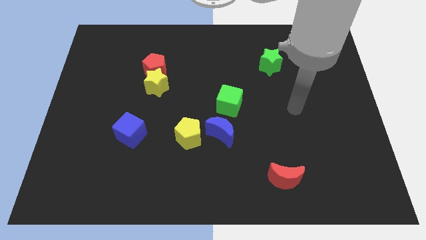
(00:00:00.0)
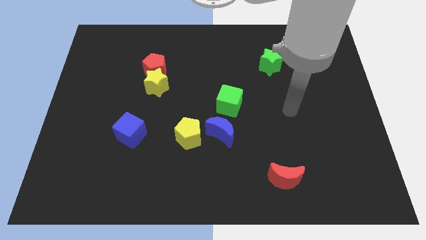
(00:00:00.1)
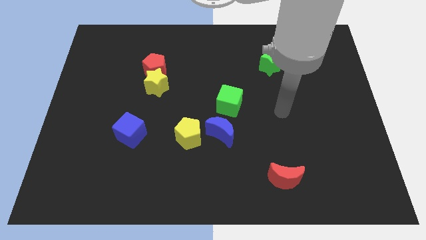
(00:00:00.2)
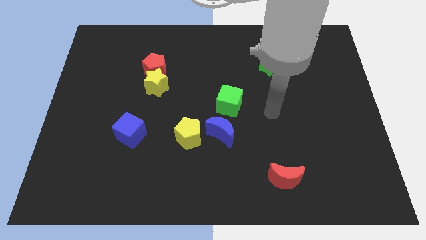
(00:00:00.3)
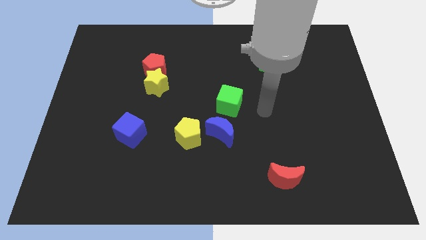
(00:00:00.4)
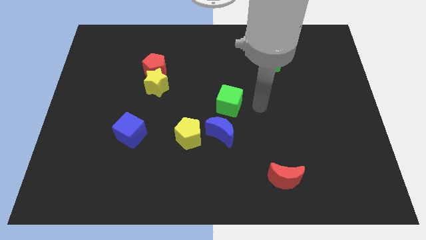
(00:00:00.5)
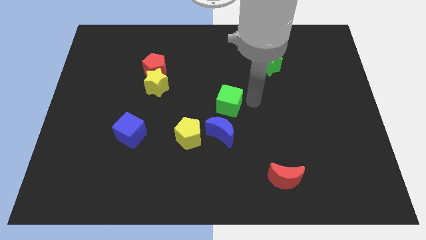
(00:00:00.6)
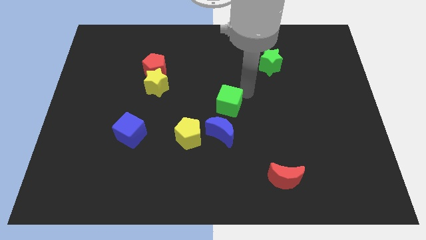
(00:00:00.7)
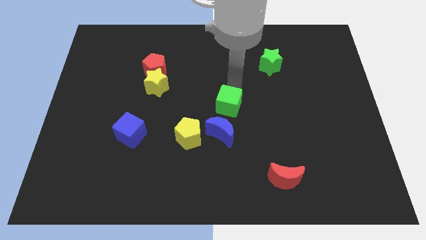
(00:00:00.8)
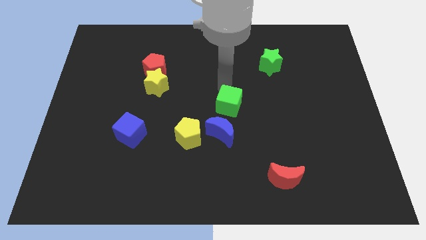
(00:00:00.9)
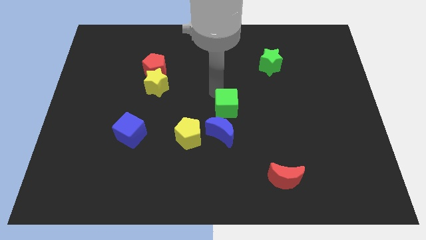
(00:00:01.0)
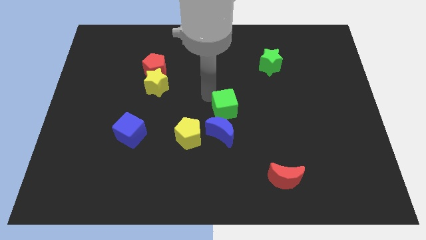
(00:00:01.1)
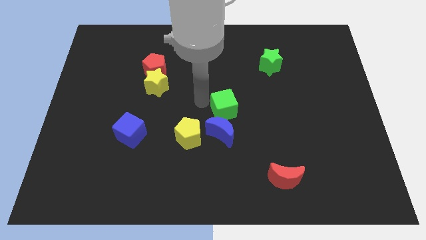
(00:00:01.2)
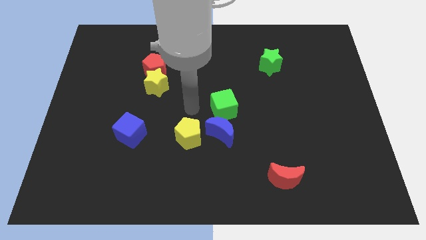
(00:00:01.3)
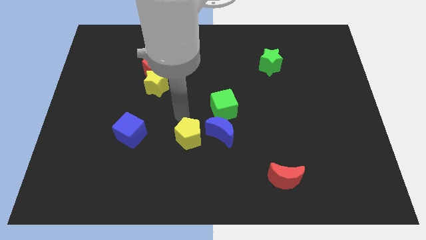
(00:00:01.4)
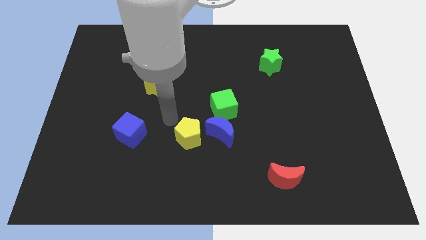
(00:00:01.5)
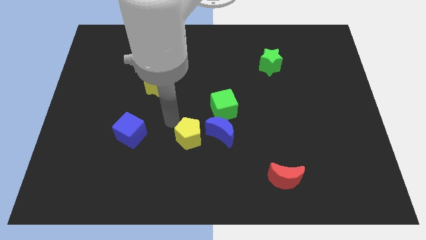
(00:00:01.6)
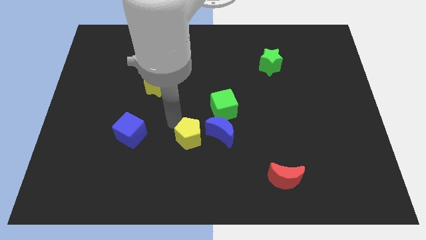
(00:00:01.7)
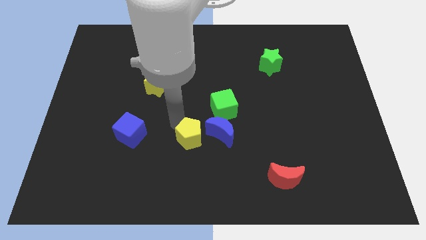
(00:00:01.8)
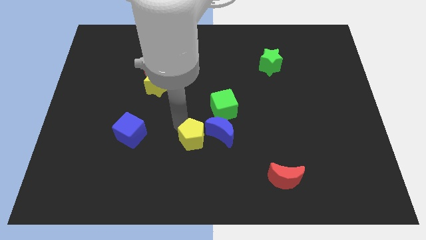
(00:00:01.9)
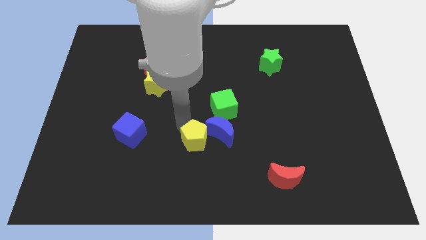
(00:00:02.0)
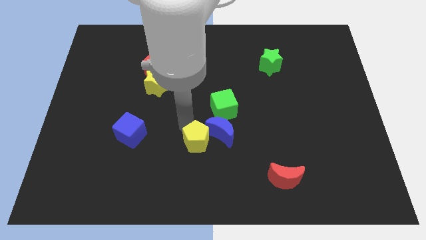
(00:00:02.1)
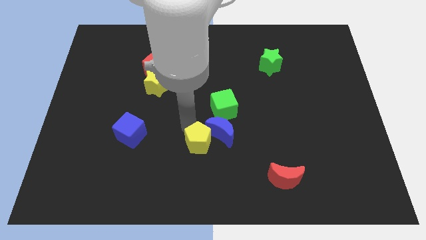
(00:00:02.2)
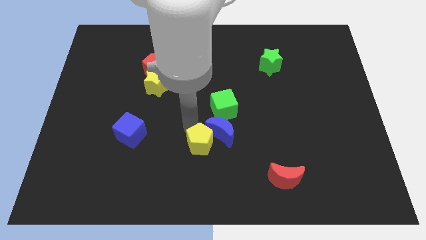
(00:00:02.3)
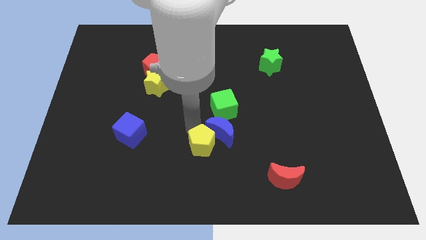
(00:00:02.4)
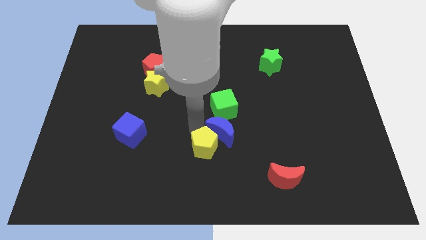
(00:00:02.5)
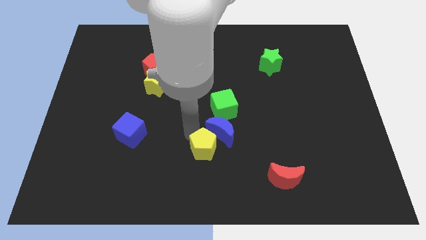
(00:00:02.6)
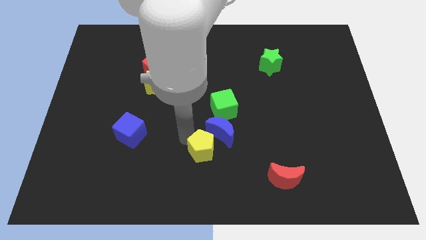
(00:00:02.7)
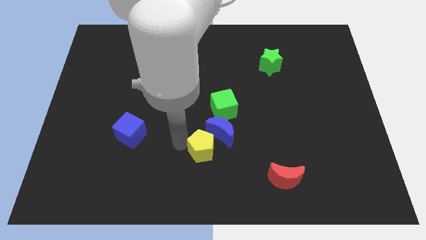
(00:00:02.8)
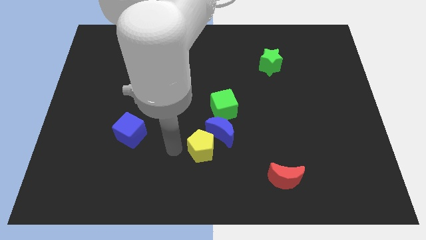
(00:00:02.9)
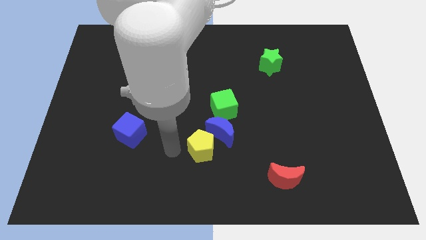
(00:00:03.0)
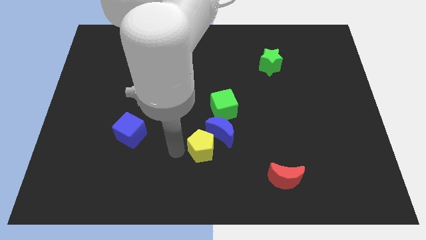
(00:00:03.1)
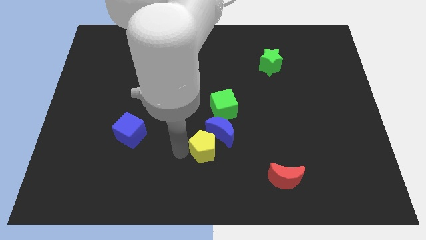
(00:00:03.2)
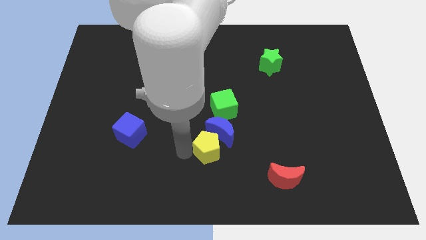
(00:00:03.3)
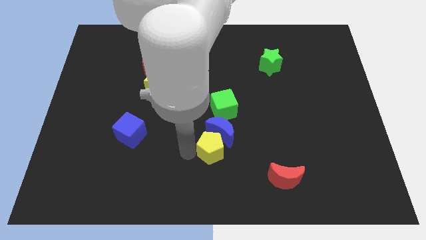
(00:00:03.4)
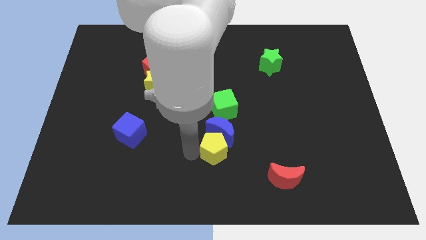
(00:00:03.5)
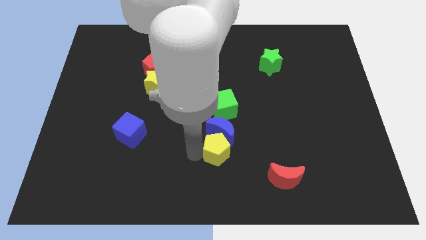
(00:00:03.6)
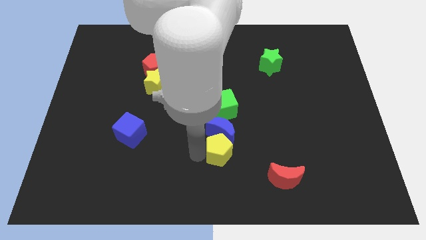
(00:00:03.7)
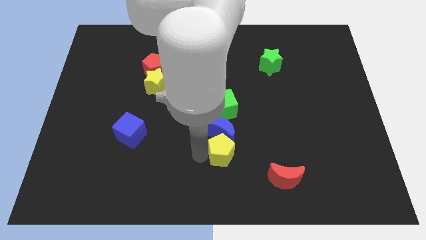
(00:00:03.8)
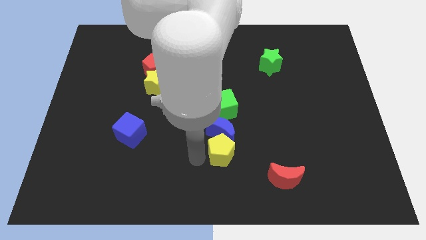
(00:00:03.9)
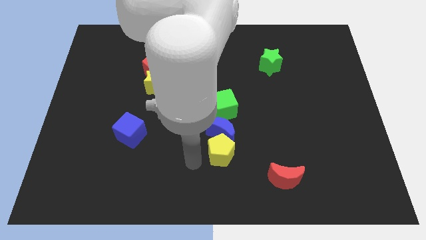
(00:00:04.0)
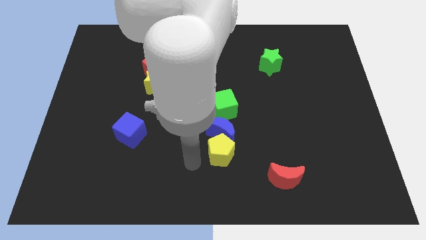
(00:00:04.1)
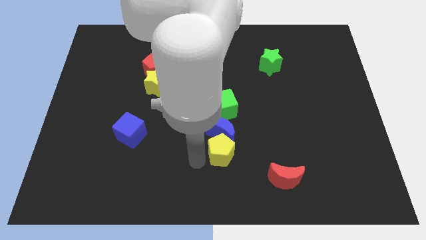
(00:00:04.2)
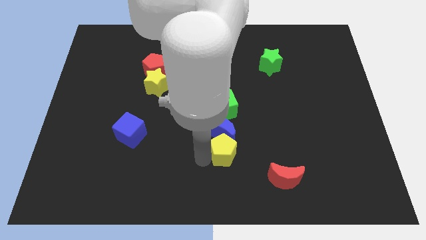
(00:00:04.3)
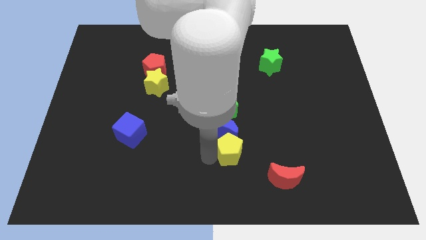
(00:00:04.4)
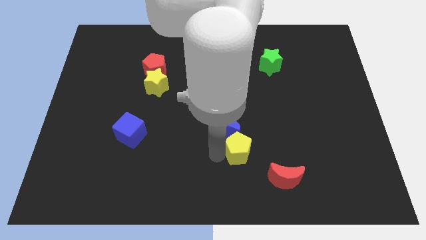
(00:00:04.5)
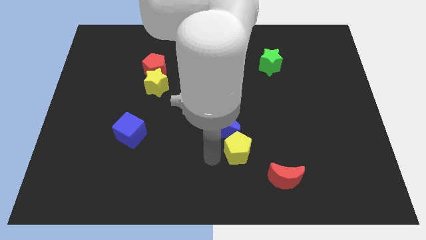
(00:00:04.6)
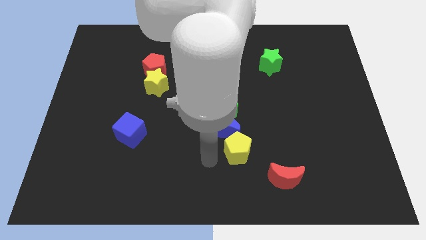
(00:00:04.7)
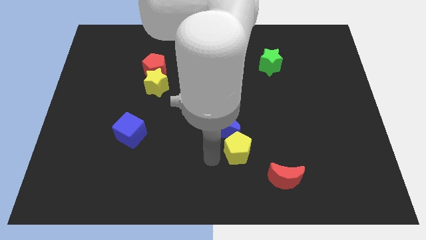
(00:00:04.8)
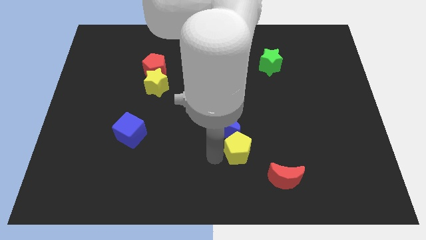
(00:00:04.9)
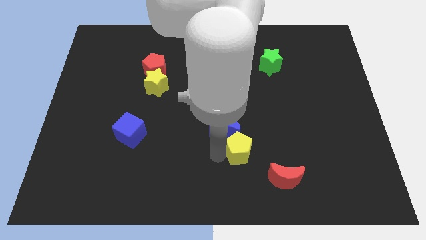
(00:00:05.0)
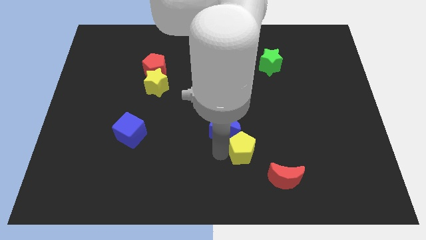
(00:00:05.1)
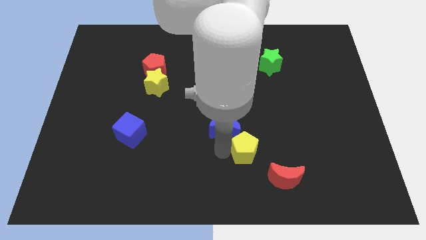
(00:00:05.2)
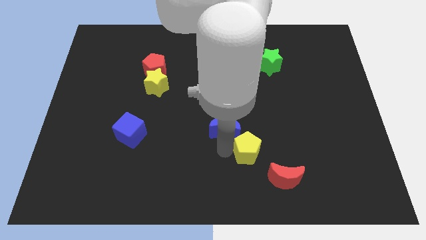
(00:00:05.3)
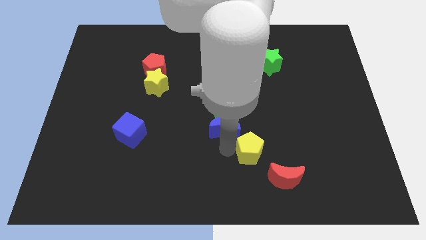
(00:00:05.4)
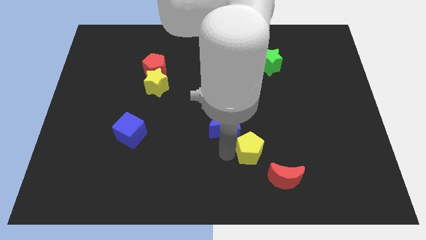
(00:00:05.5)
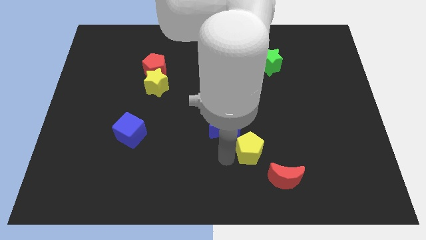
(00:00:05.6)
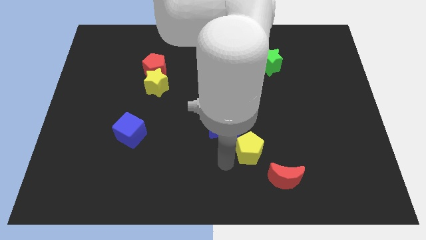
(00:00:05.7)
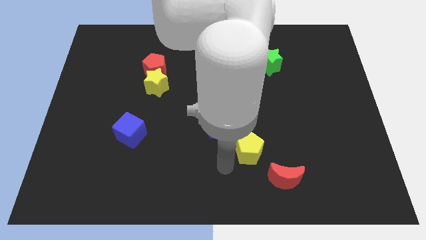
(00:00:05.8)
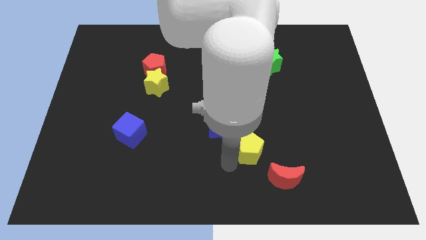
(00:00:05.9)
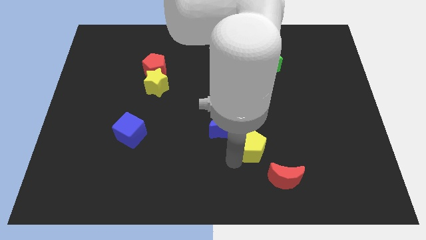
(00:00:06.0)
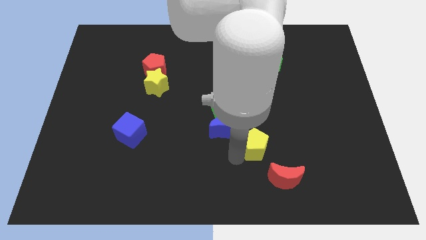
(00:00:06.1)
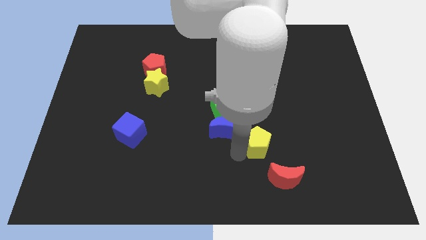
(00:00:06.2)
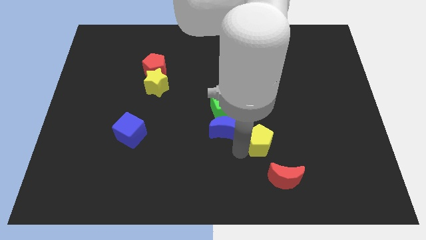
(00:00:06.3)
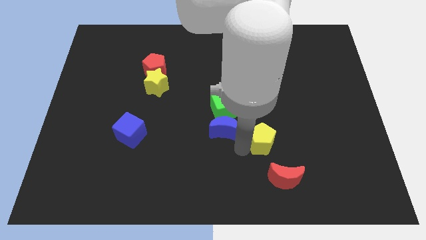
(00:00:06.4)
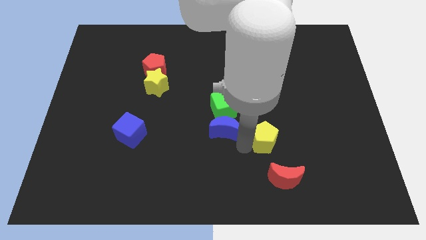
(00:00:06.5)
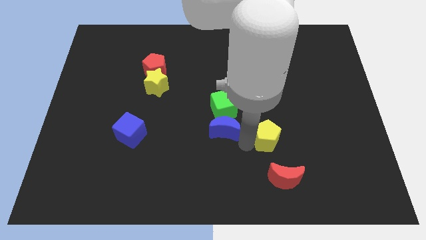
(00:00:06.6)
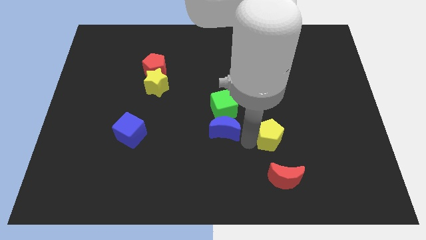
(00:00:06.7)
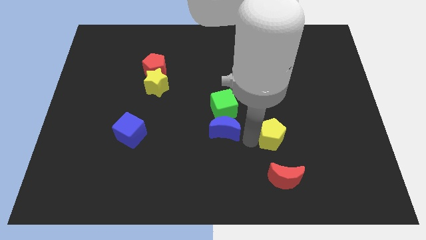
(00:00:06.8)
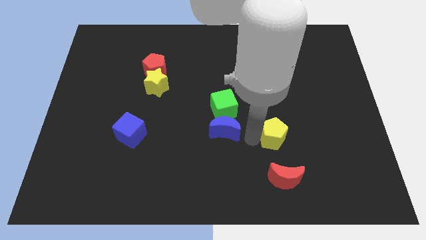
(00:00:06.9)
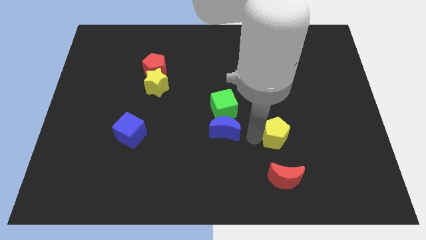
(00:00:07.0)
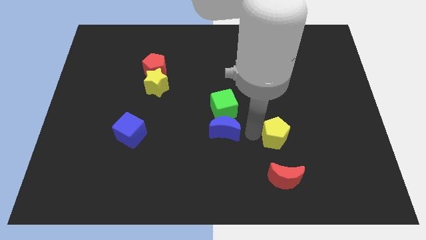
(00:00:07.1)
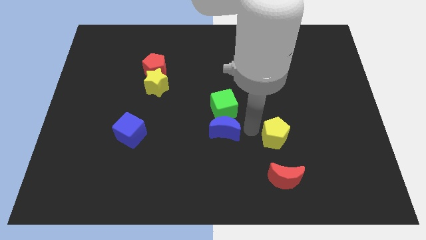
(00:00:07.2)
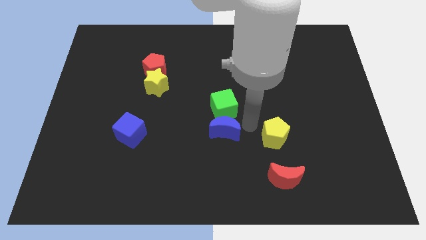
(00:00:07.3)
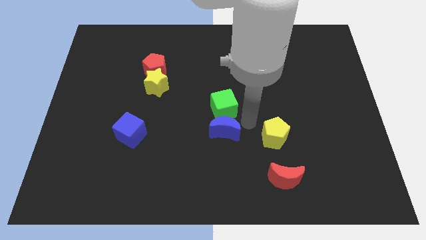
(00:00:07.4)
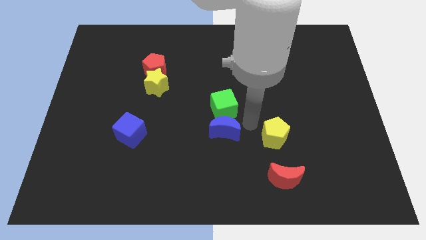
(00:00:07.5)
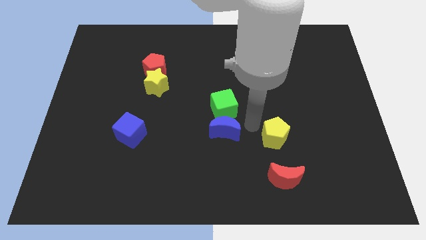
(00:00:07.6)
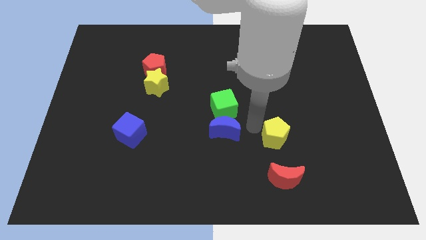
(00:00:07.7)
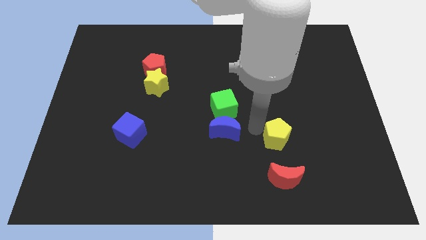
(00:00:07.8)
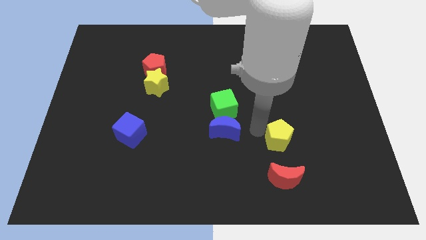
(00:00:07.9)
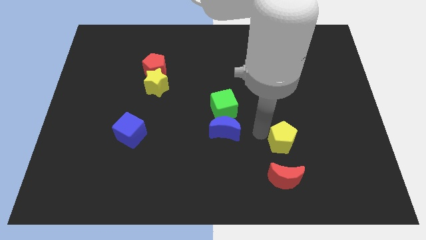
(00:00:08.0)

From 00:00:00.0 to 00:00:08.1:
push the yellow pentagon right
